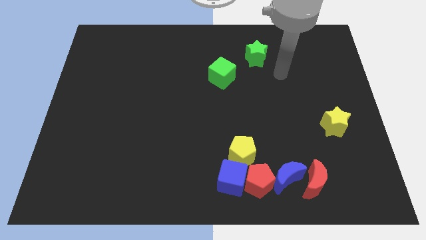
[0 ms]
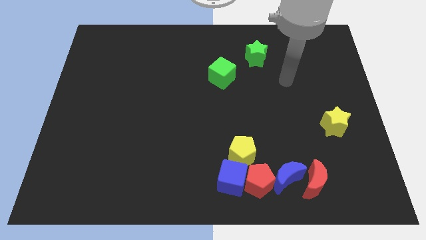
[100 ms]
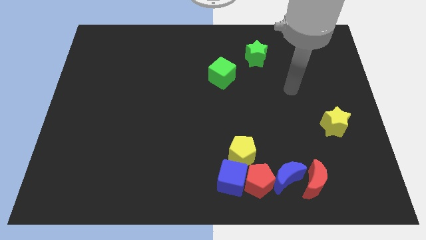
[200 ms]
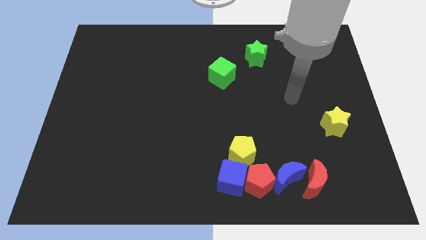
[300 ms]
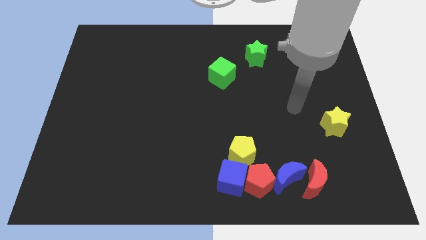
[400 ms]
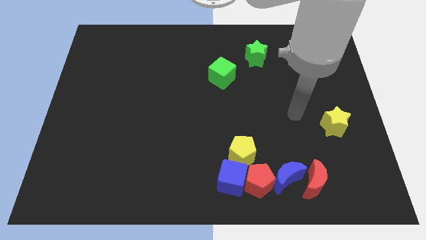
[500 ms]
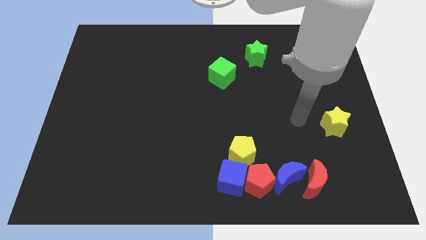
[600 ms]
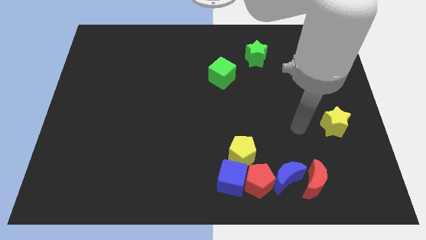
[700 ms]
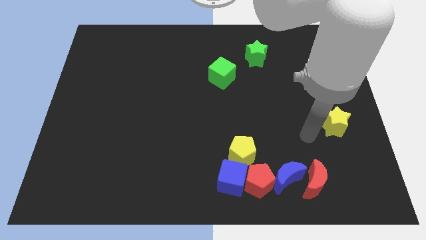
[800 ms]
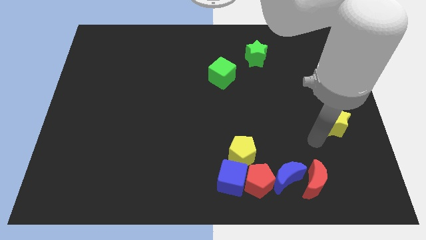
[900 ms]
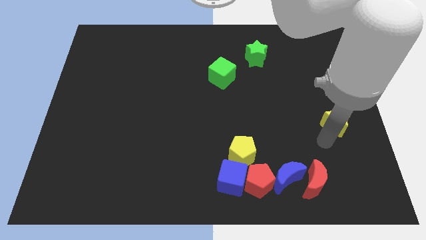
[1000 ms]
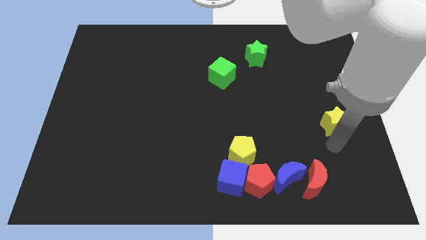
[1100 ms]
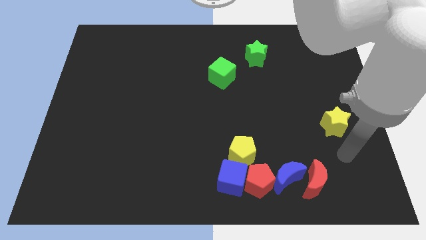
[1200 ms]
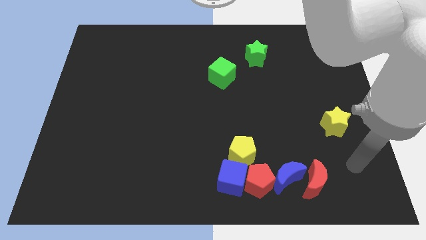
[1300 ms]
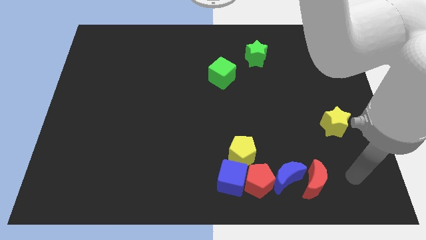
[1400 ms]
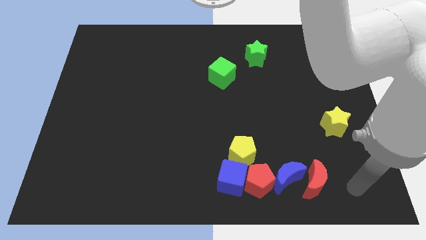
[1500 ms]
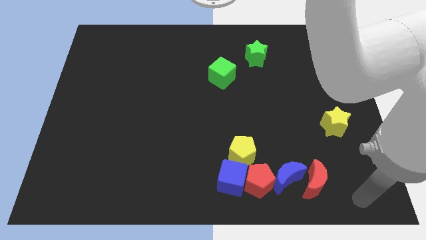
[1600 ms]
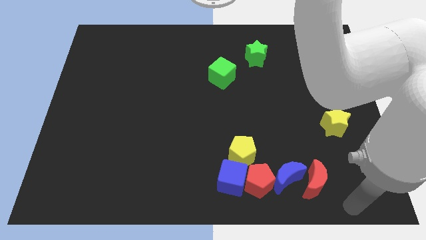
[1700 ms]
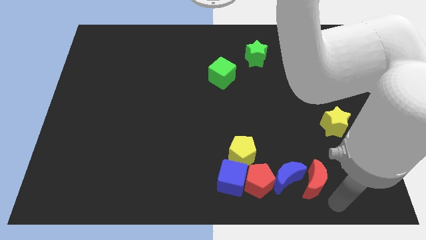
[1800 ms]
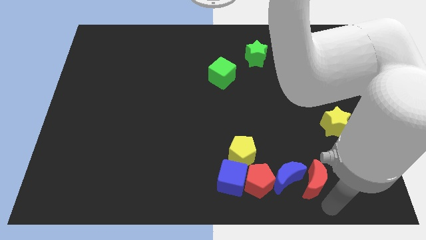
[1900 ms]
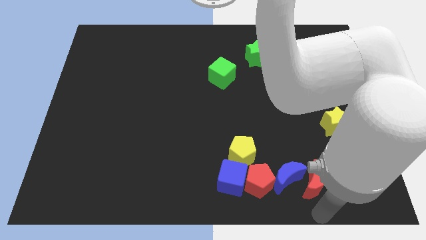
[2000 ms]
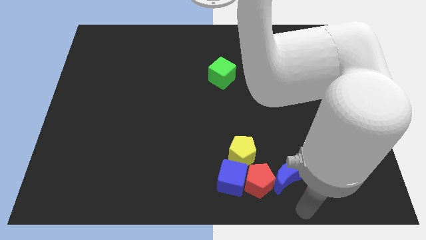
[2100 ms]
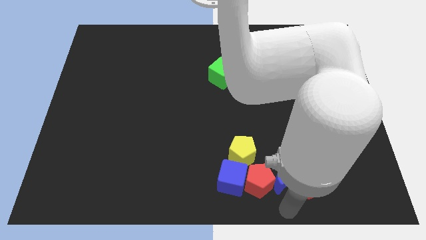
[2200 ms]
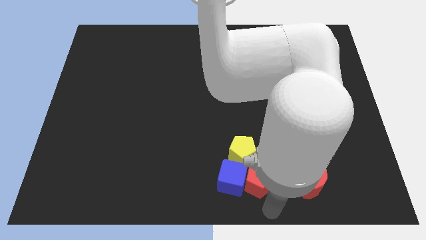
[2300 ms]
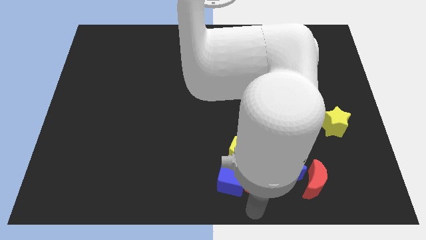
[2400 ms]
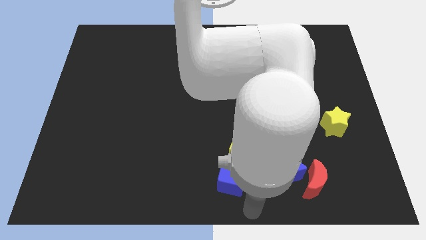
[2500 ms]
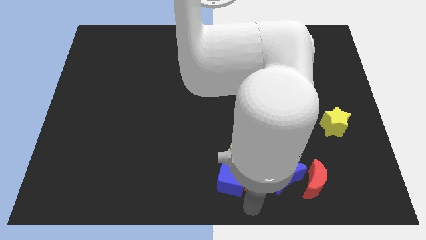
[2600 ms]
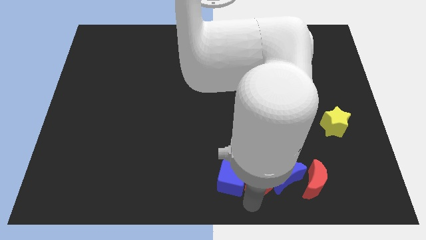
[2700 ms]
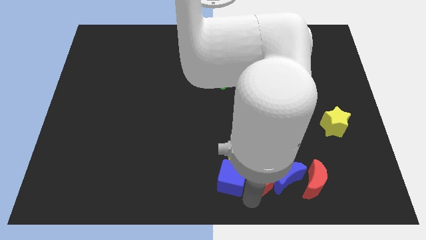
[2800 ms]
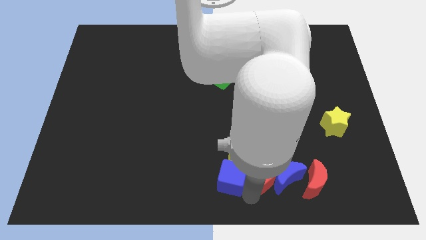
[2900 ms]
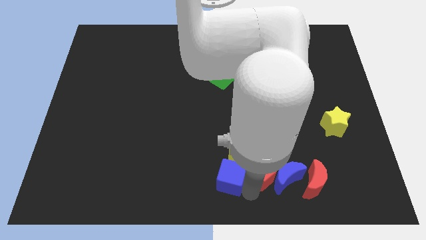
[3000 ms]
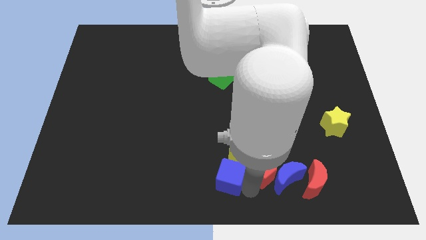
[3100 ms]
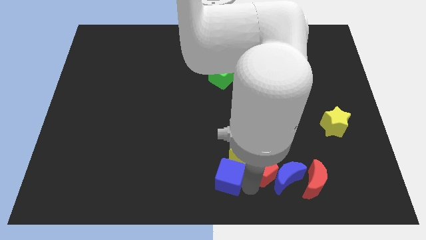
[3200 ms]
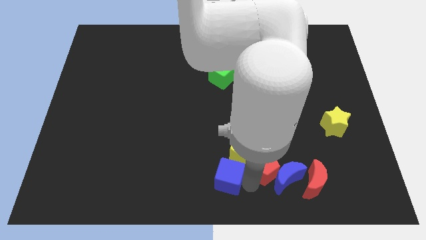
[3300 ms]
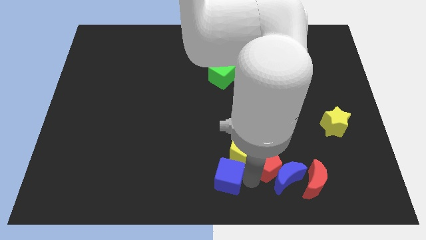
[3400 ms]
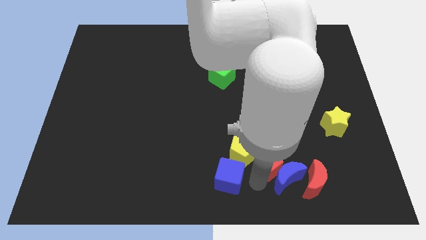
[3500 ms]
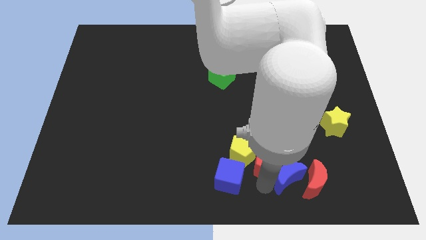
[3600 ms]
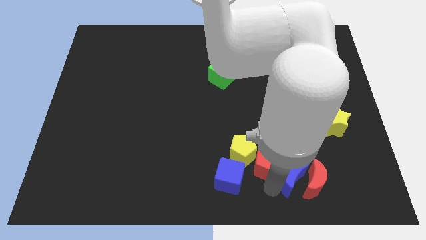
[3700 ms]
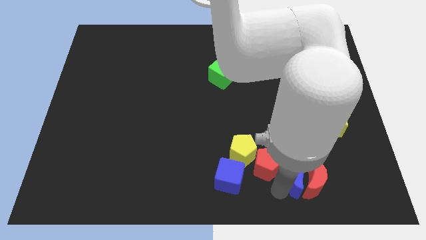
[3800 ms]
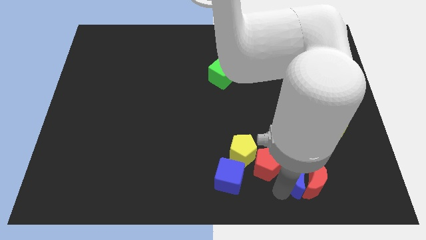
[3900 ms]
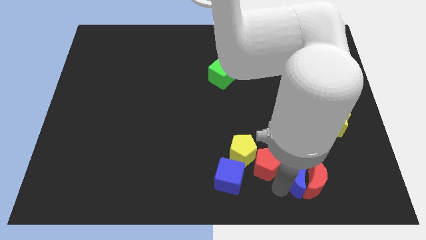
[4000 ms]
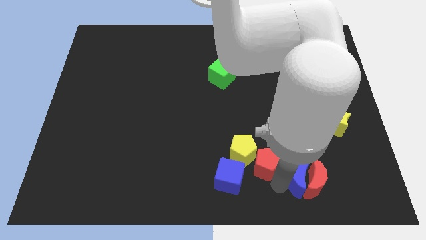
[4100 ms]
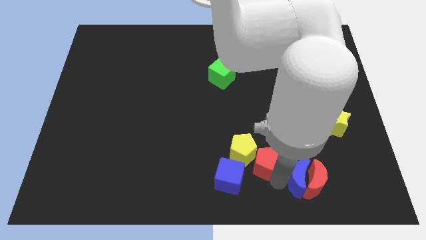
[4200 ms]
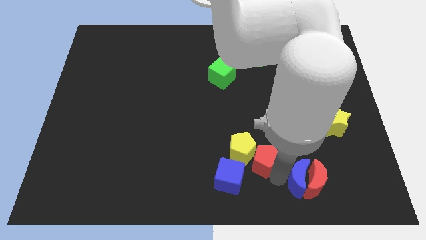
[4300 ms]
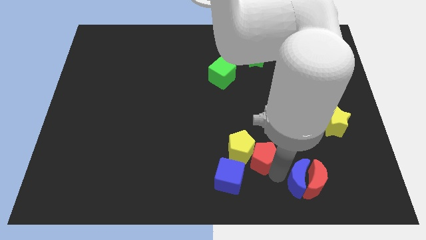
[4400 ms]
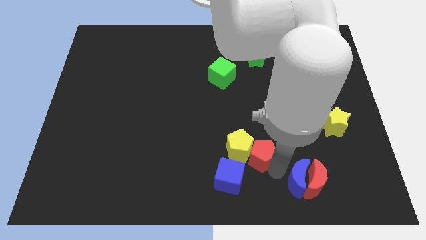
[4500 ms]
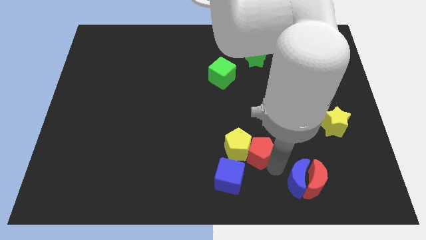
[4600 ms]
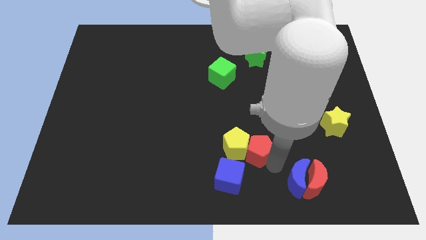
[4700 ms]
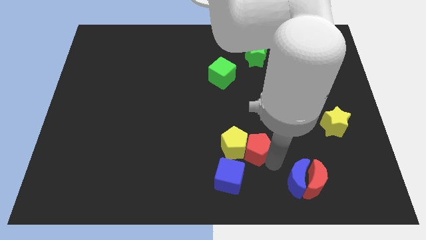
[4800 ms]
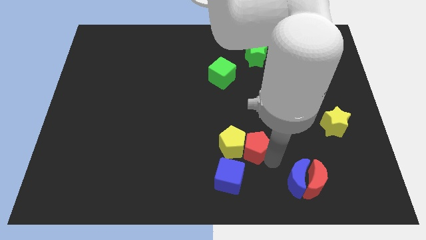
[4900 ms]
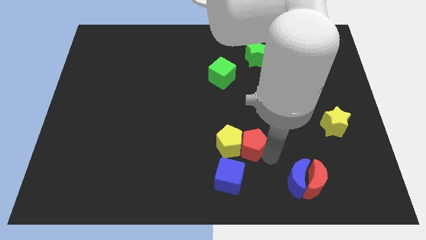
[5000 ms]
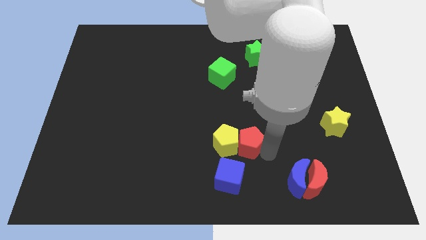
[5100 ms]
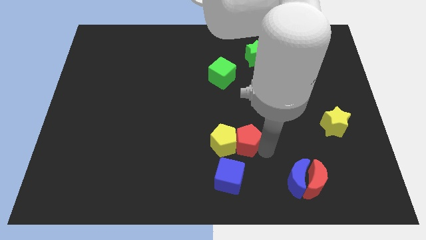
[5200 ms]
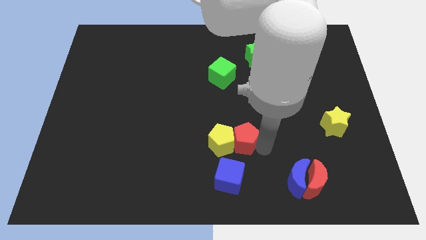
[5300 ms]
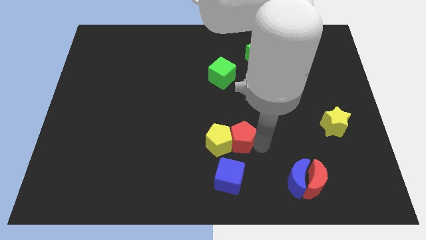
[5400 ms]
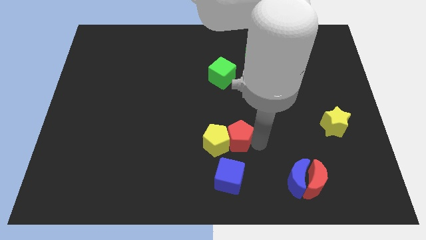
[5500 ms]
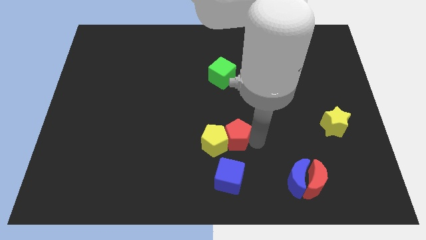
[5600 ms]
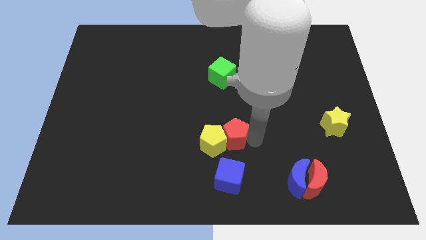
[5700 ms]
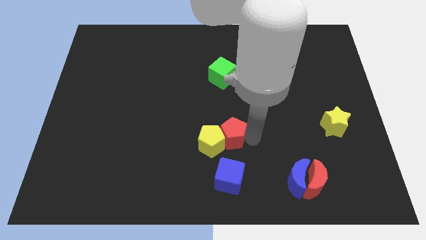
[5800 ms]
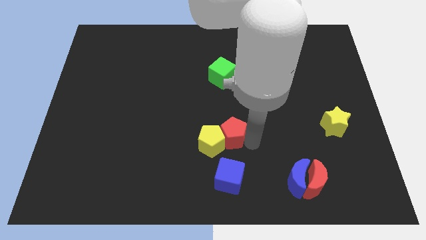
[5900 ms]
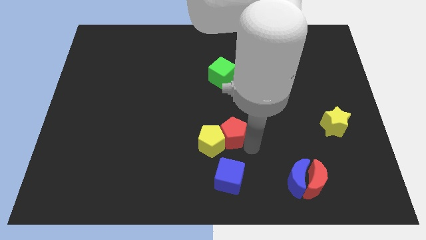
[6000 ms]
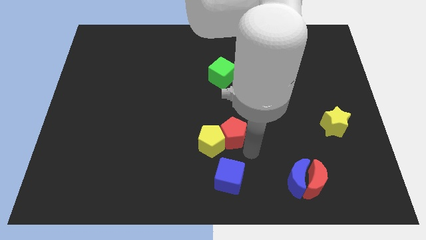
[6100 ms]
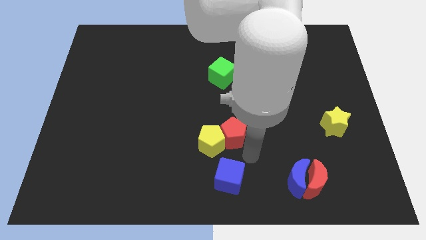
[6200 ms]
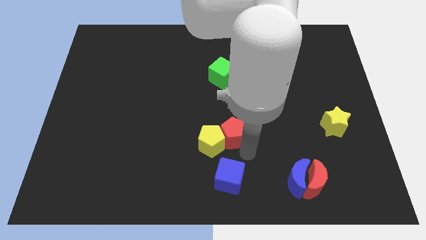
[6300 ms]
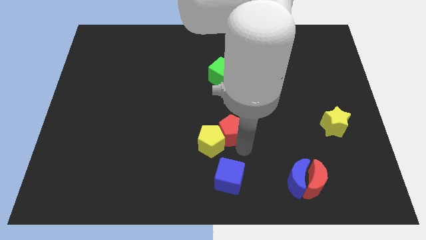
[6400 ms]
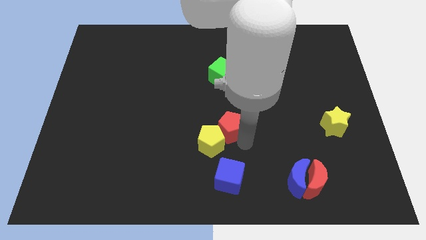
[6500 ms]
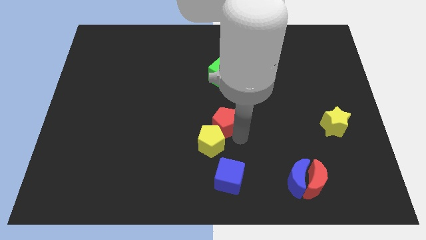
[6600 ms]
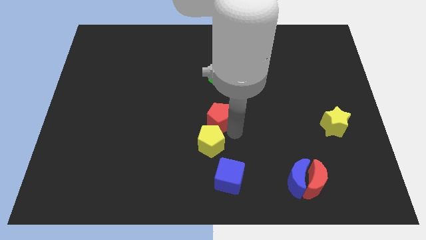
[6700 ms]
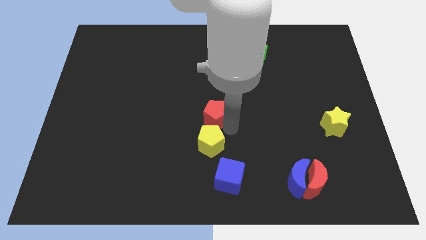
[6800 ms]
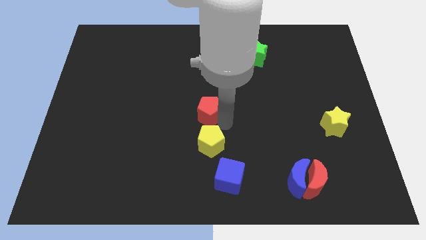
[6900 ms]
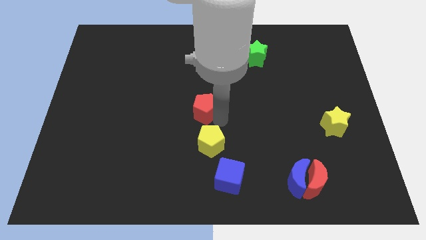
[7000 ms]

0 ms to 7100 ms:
push the red pentagon up and left

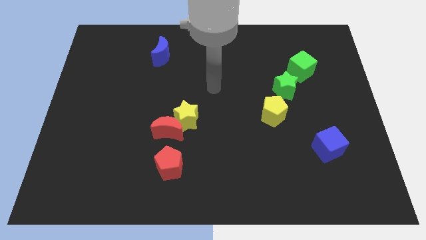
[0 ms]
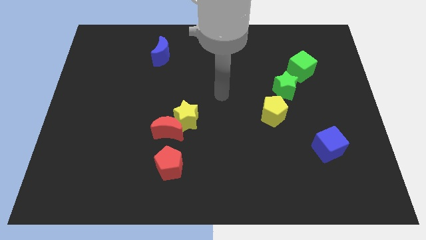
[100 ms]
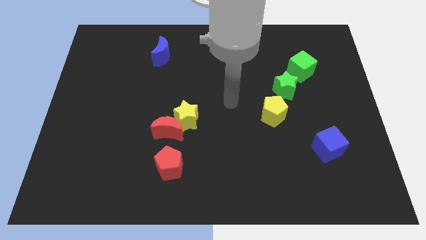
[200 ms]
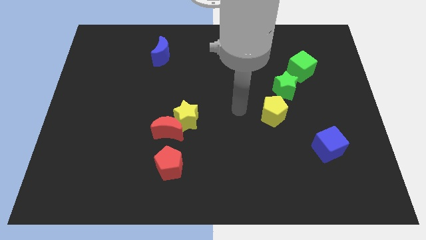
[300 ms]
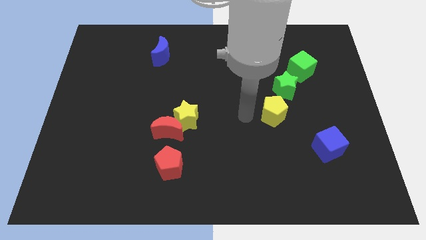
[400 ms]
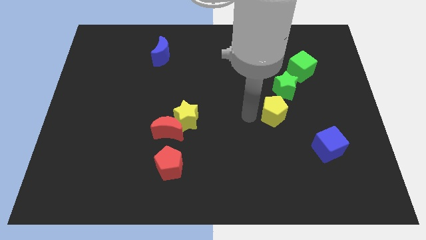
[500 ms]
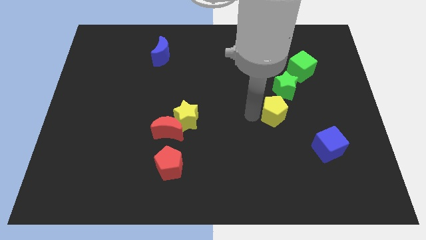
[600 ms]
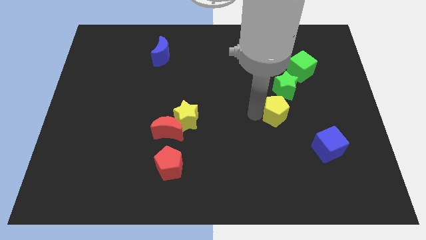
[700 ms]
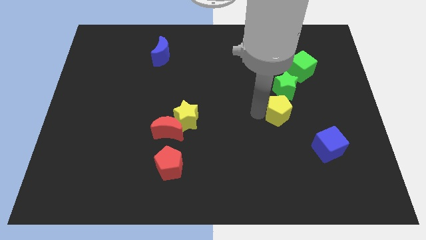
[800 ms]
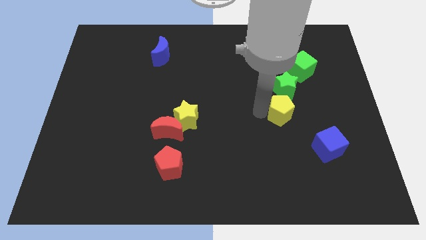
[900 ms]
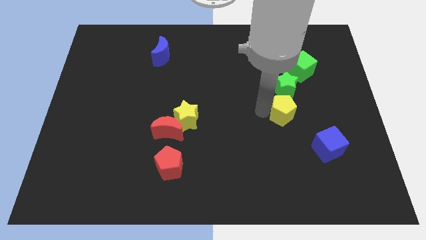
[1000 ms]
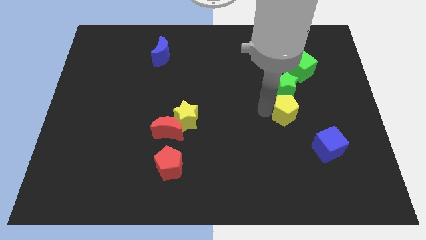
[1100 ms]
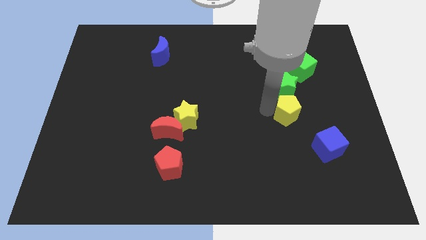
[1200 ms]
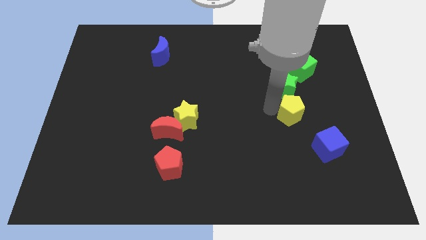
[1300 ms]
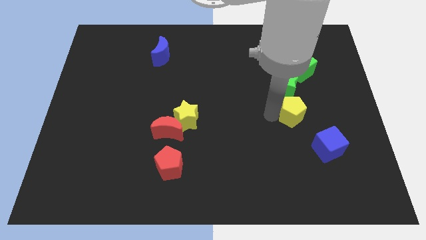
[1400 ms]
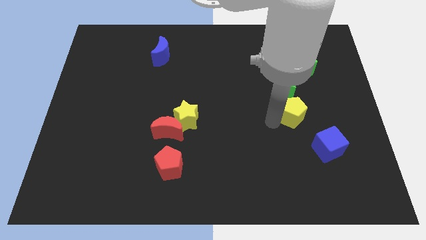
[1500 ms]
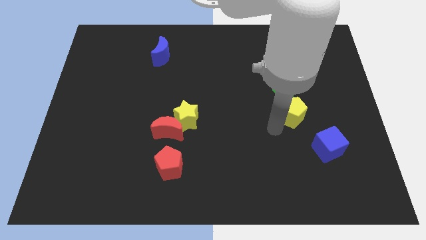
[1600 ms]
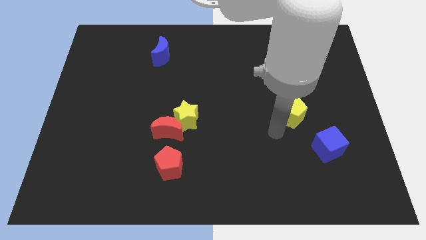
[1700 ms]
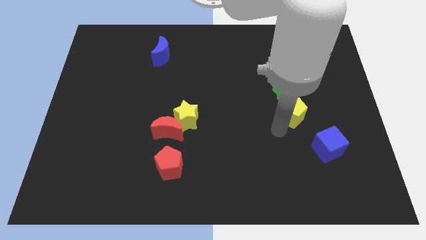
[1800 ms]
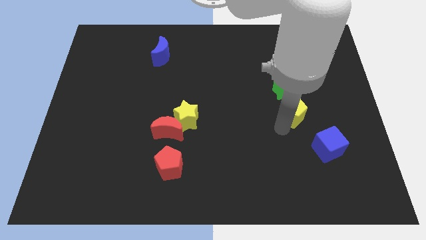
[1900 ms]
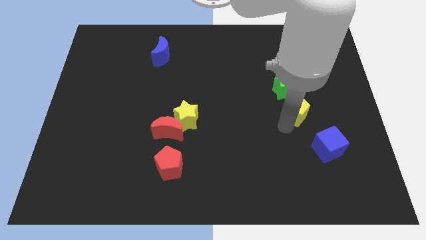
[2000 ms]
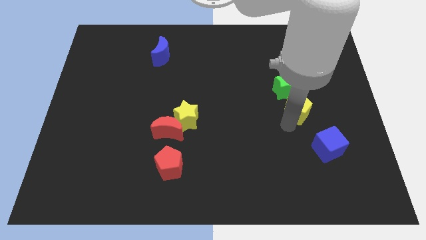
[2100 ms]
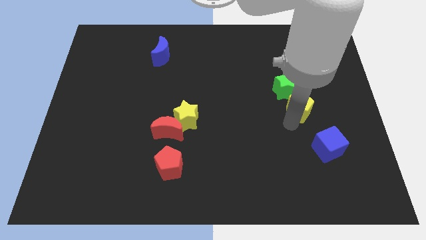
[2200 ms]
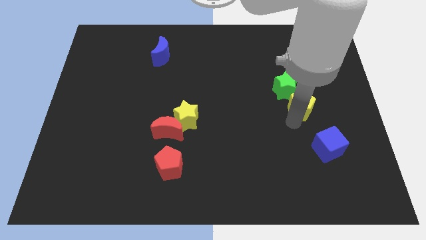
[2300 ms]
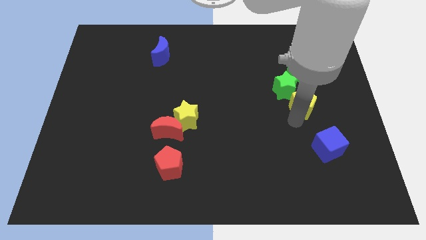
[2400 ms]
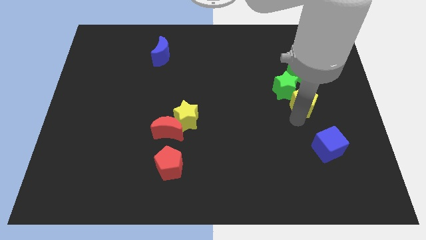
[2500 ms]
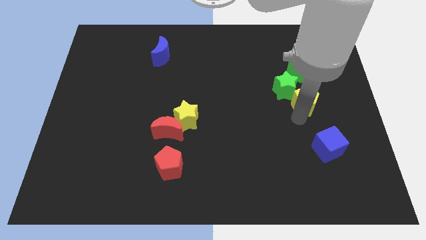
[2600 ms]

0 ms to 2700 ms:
move the yellow pentagon a little bit upwards and right
